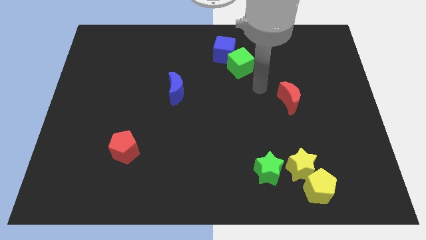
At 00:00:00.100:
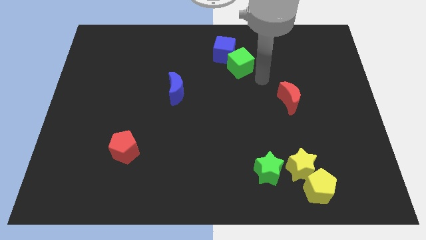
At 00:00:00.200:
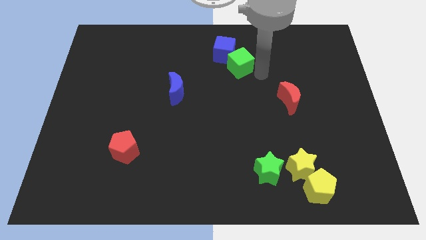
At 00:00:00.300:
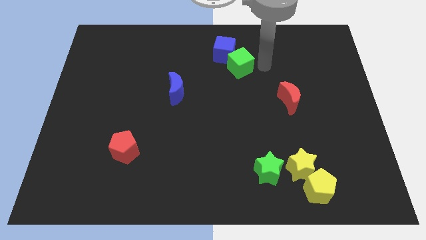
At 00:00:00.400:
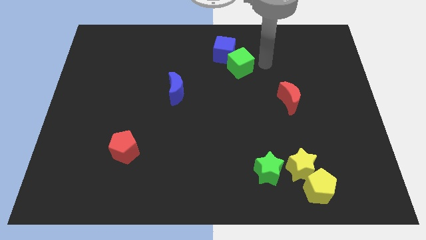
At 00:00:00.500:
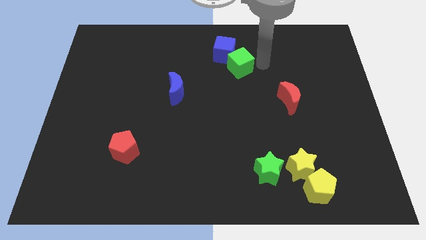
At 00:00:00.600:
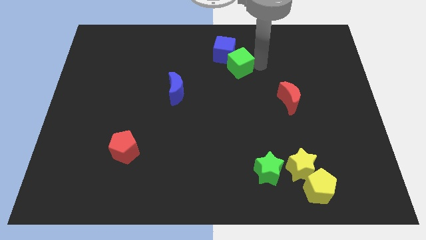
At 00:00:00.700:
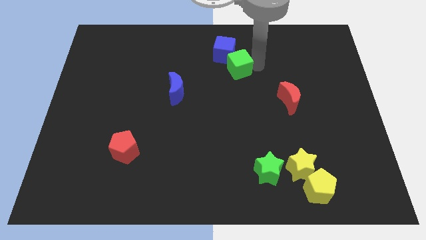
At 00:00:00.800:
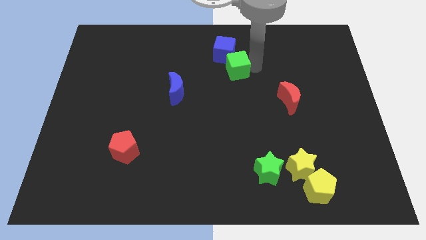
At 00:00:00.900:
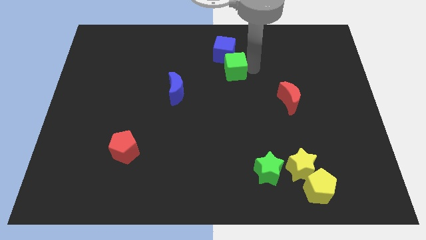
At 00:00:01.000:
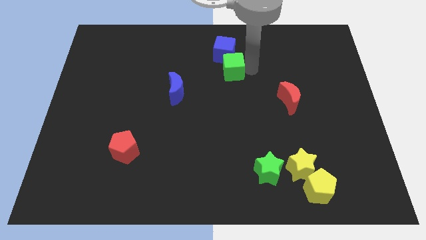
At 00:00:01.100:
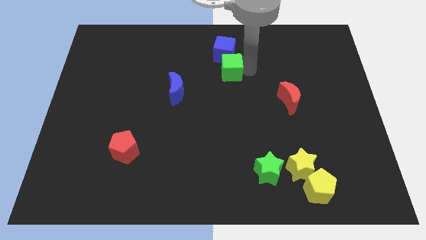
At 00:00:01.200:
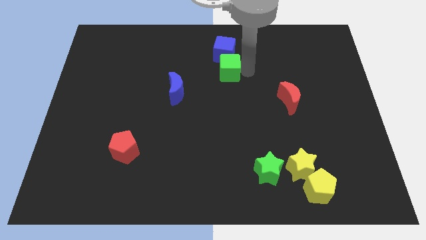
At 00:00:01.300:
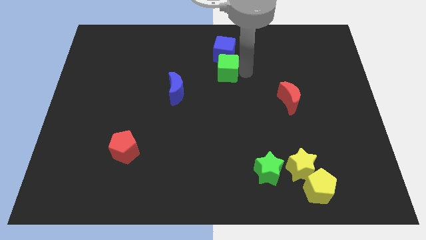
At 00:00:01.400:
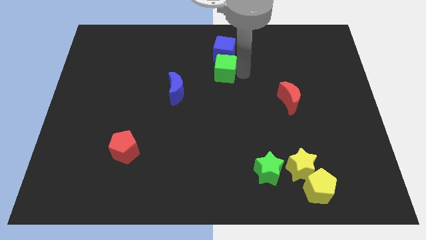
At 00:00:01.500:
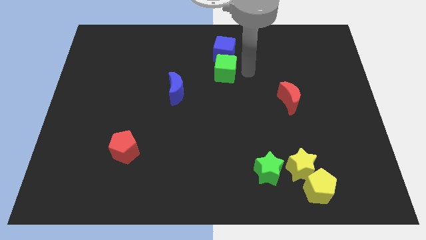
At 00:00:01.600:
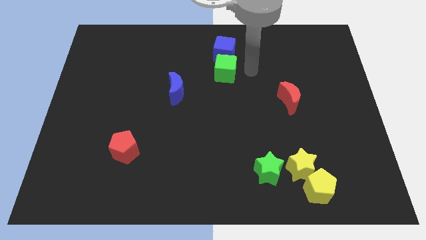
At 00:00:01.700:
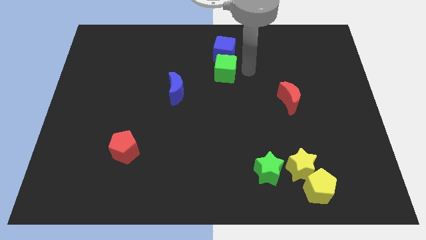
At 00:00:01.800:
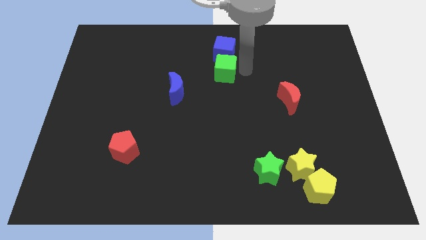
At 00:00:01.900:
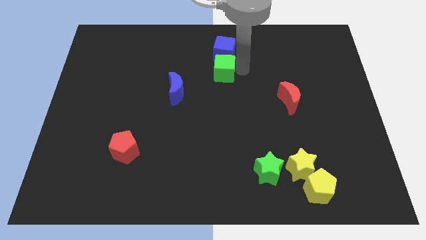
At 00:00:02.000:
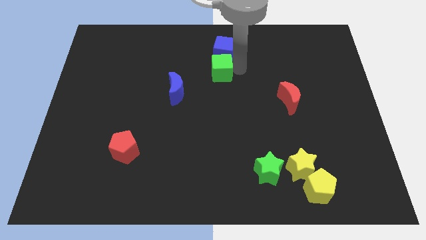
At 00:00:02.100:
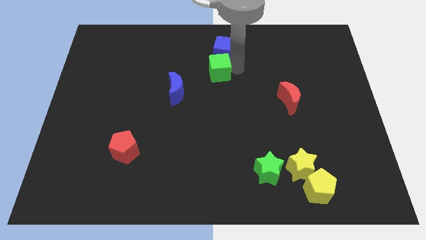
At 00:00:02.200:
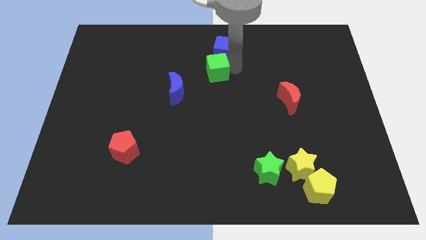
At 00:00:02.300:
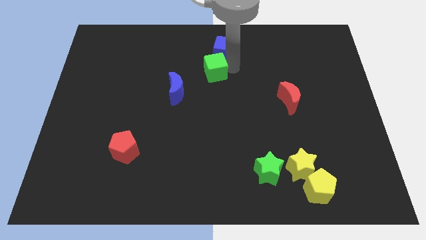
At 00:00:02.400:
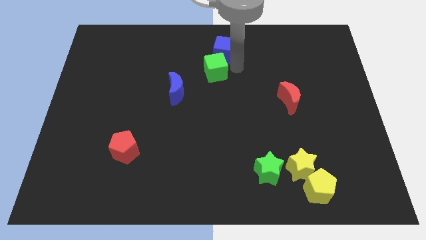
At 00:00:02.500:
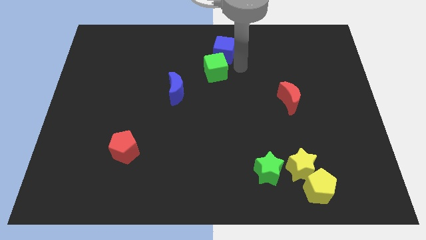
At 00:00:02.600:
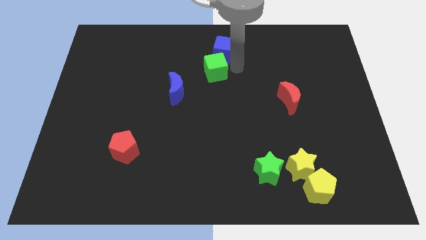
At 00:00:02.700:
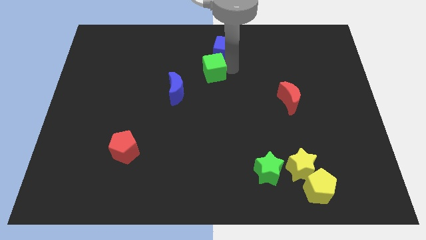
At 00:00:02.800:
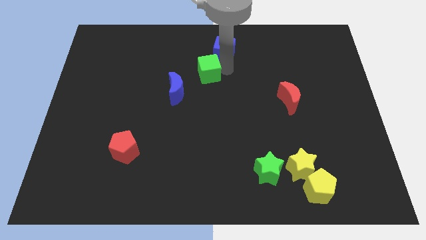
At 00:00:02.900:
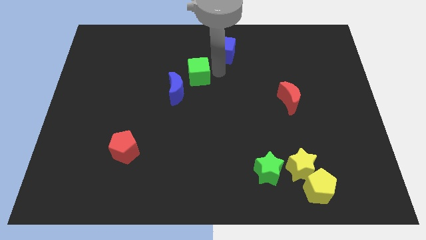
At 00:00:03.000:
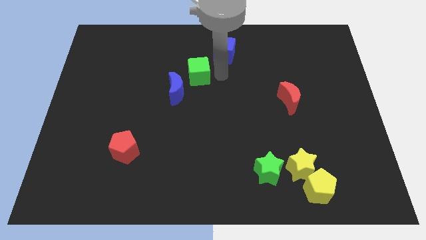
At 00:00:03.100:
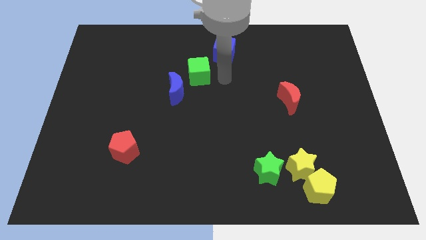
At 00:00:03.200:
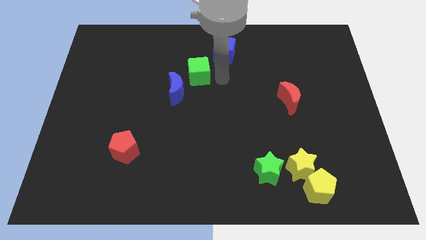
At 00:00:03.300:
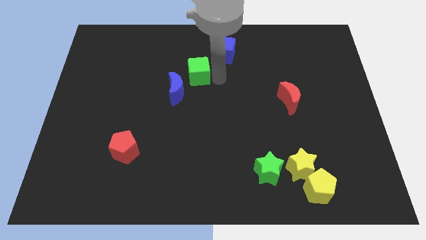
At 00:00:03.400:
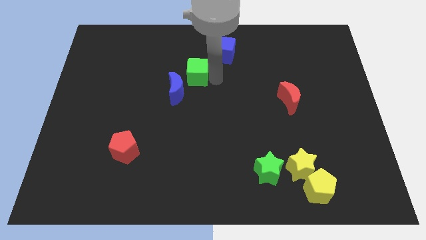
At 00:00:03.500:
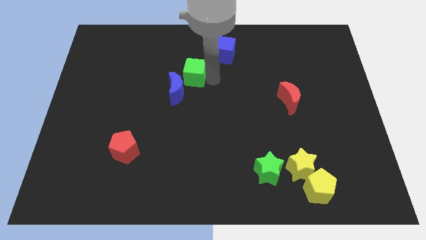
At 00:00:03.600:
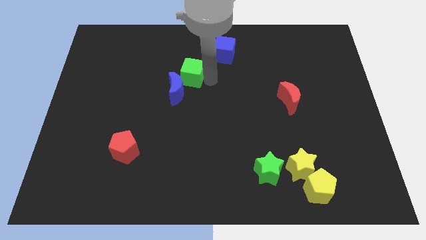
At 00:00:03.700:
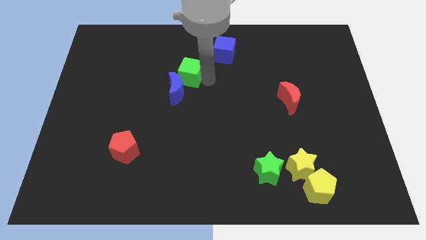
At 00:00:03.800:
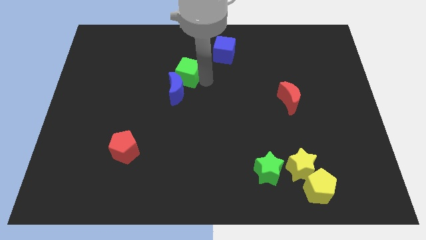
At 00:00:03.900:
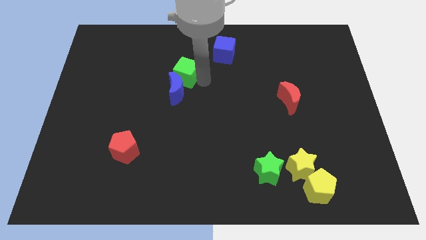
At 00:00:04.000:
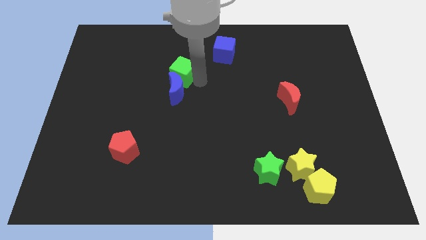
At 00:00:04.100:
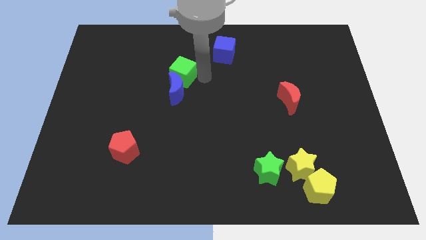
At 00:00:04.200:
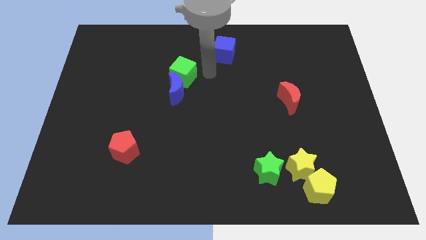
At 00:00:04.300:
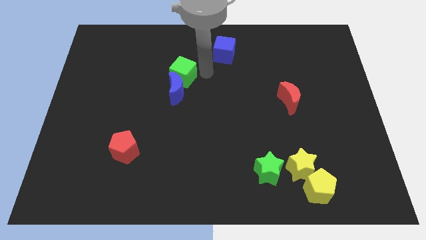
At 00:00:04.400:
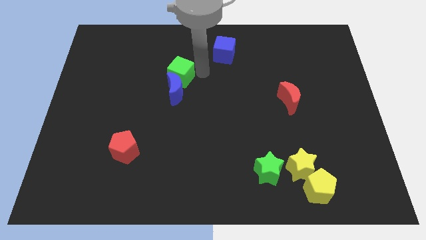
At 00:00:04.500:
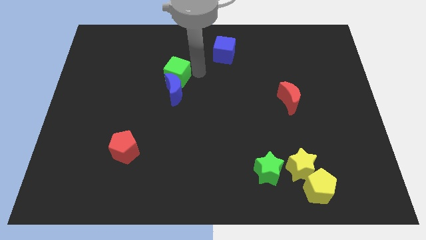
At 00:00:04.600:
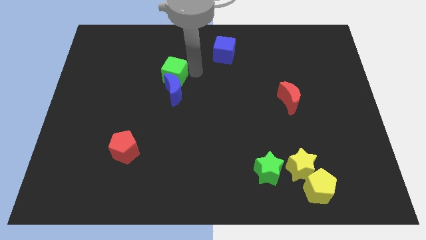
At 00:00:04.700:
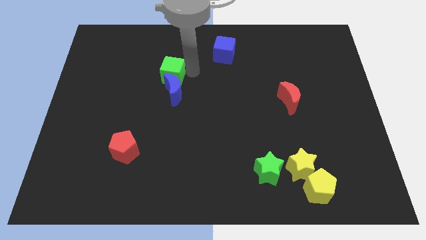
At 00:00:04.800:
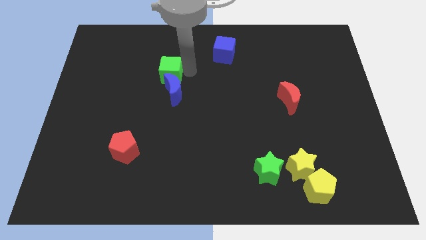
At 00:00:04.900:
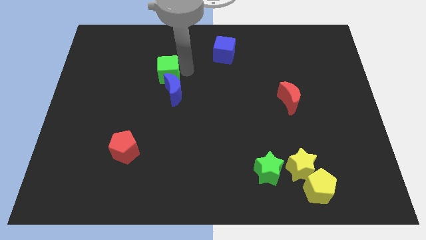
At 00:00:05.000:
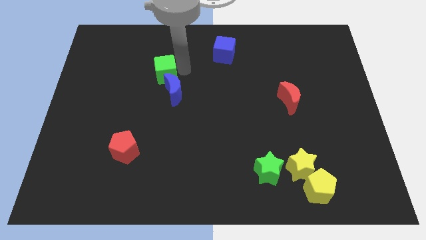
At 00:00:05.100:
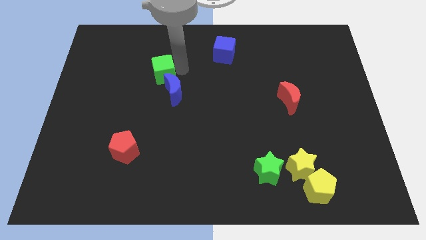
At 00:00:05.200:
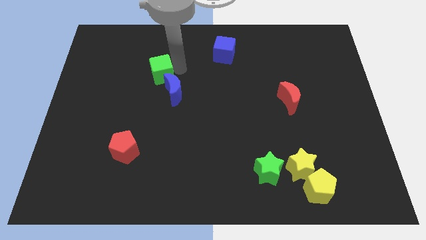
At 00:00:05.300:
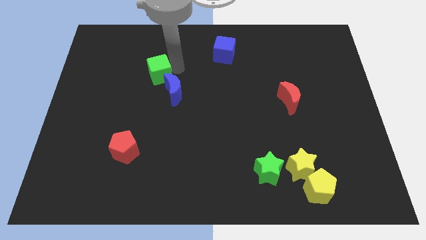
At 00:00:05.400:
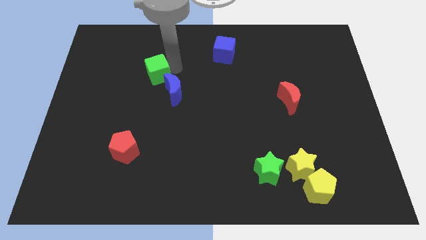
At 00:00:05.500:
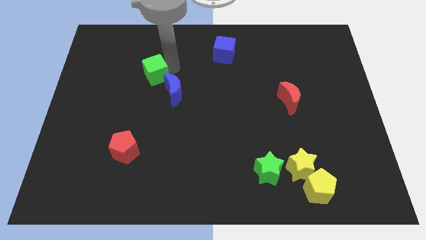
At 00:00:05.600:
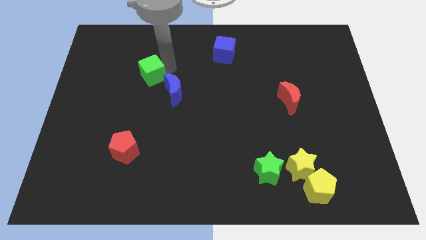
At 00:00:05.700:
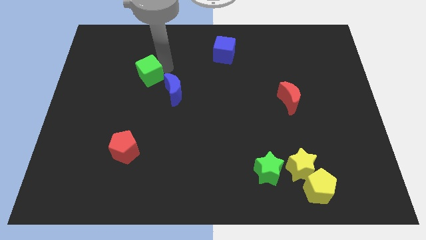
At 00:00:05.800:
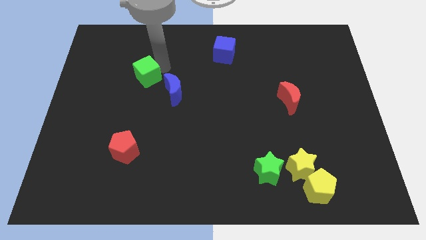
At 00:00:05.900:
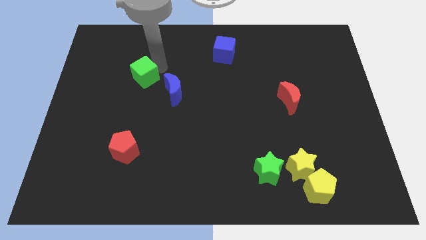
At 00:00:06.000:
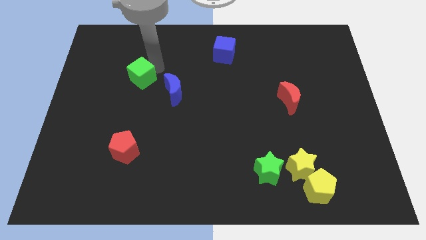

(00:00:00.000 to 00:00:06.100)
slide the green cube just left of the blue moon
